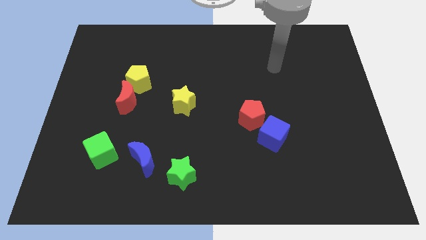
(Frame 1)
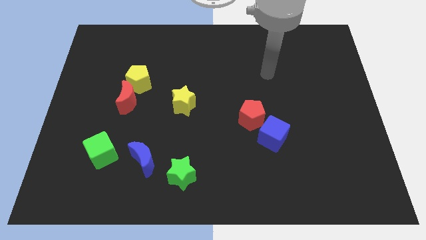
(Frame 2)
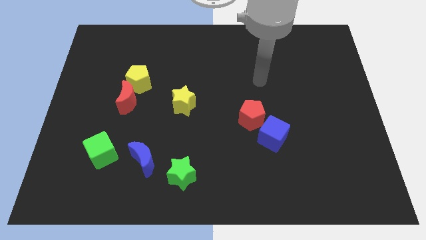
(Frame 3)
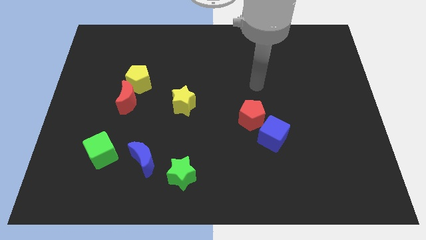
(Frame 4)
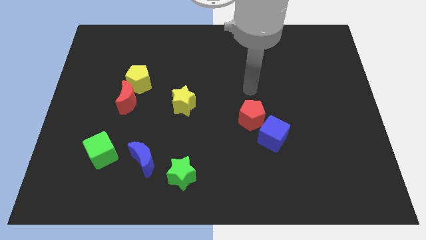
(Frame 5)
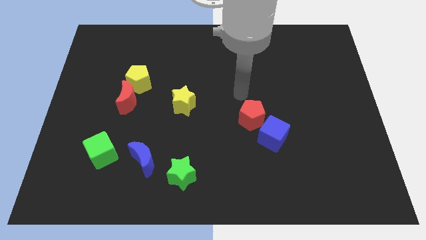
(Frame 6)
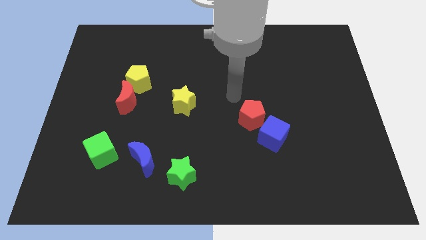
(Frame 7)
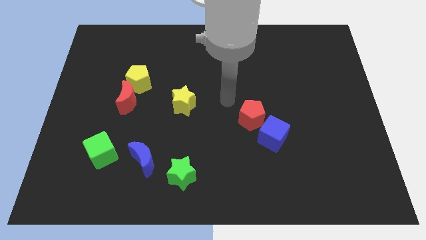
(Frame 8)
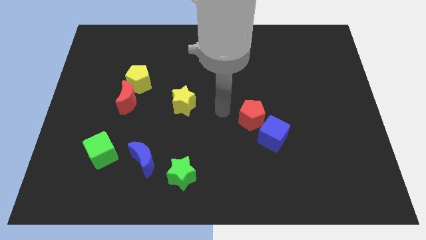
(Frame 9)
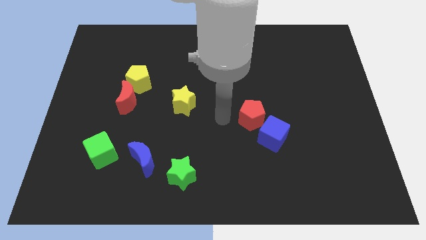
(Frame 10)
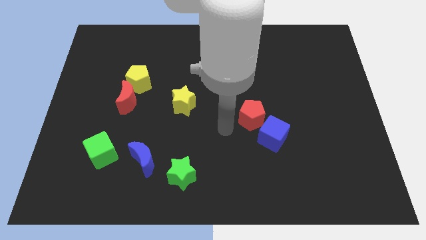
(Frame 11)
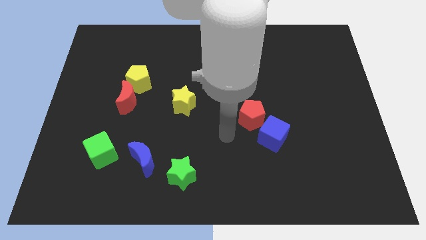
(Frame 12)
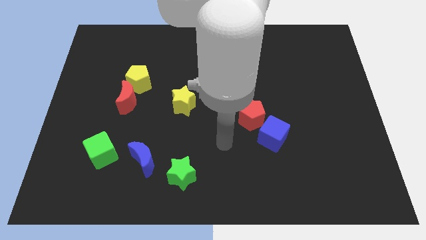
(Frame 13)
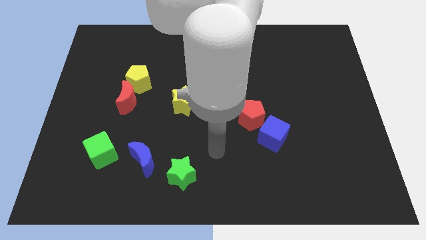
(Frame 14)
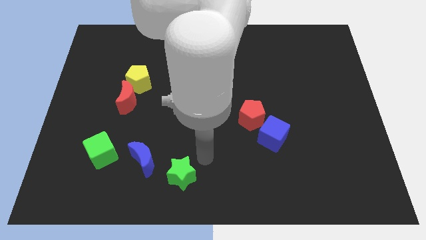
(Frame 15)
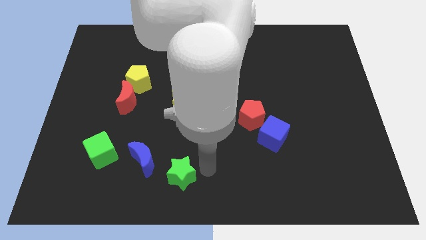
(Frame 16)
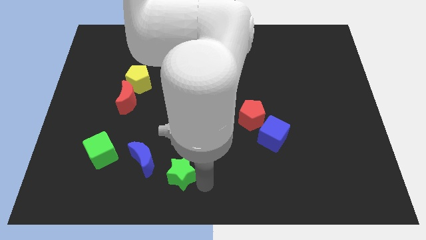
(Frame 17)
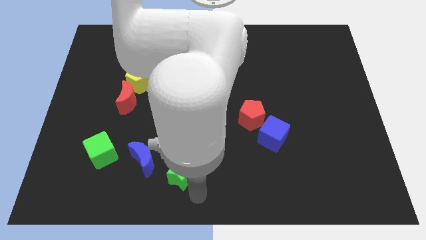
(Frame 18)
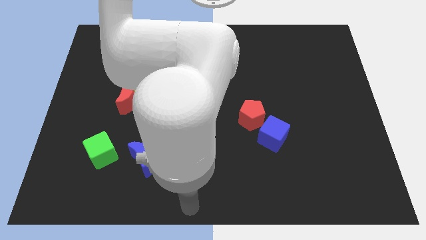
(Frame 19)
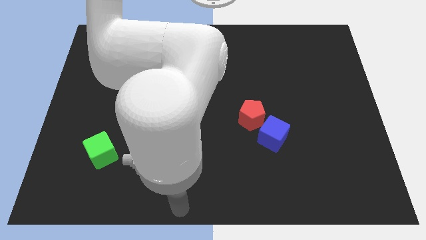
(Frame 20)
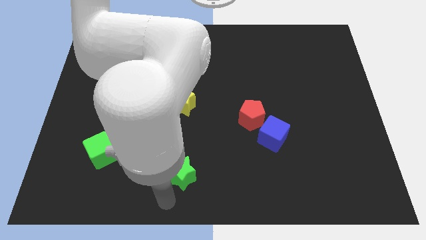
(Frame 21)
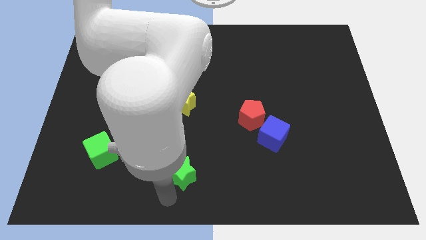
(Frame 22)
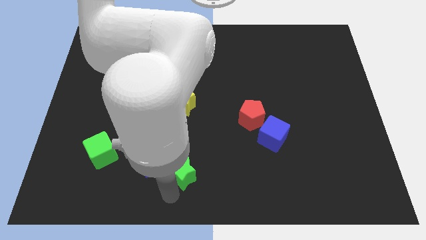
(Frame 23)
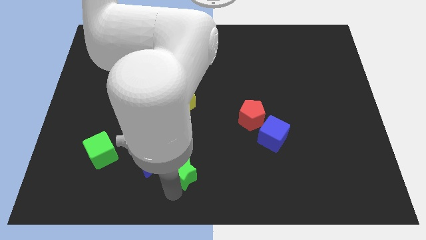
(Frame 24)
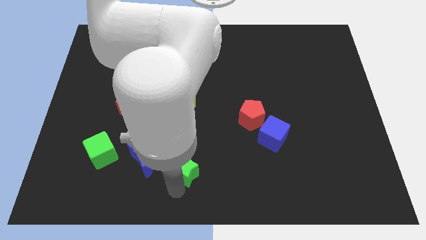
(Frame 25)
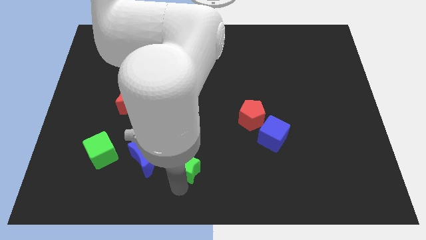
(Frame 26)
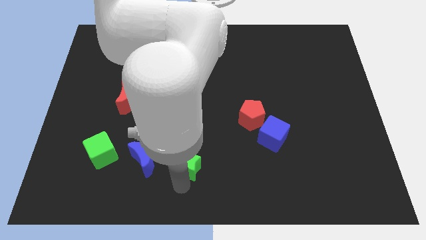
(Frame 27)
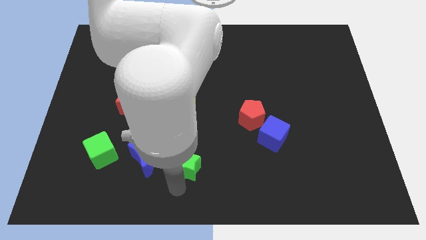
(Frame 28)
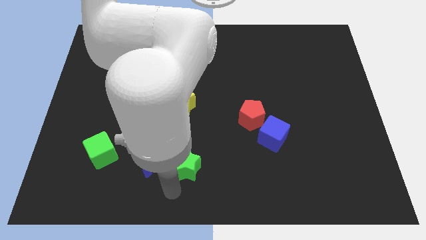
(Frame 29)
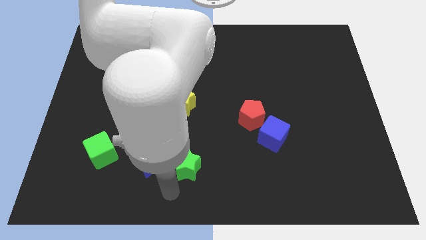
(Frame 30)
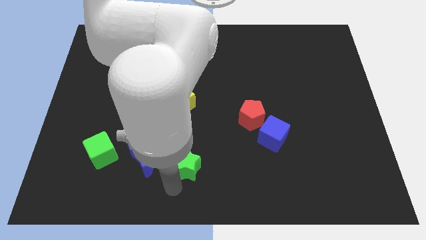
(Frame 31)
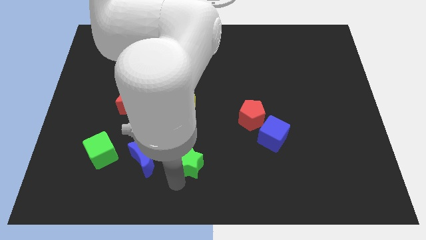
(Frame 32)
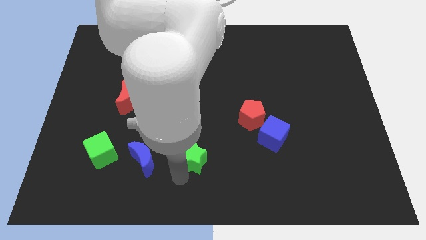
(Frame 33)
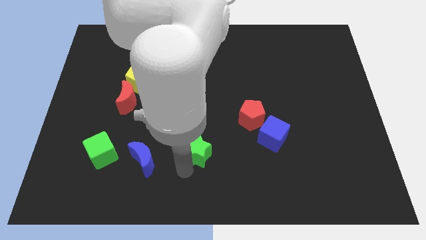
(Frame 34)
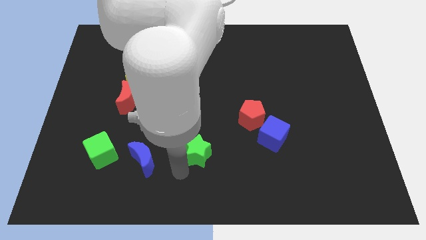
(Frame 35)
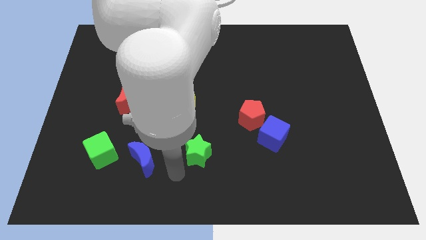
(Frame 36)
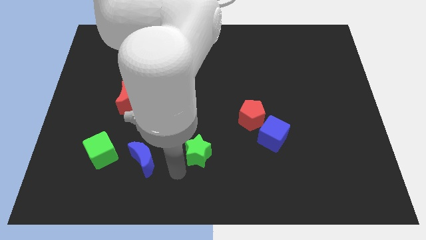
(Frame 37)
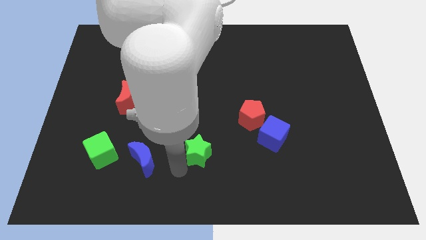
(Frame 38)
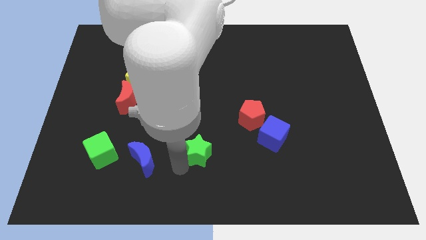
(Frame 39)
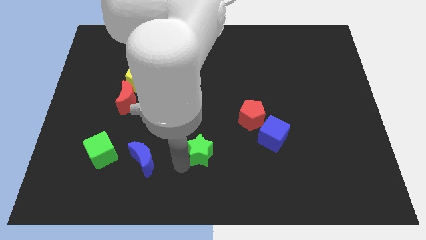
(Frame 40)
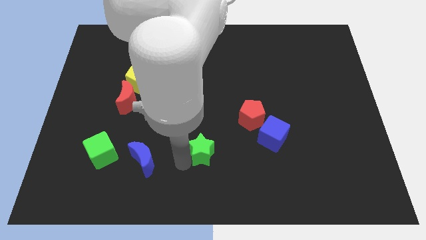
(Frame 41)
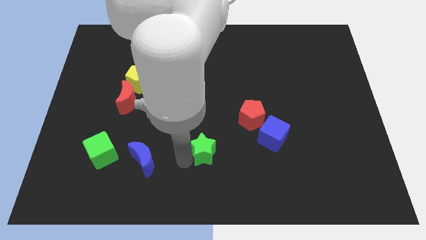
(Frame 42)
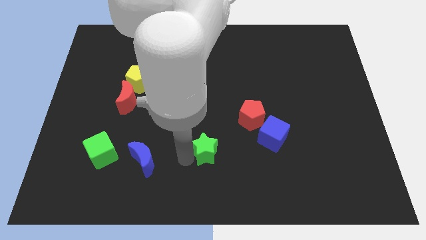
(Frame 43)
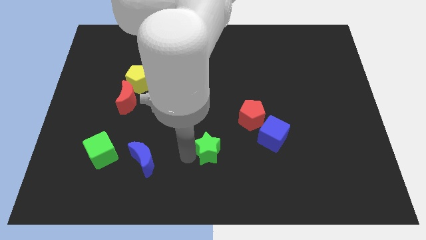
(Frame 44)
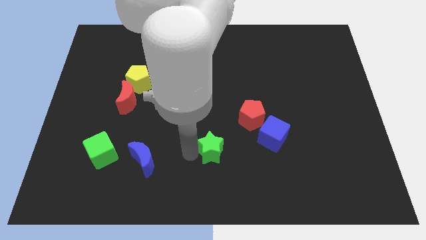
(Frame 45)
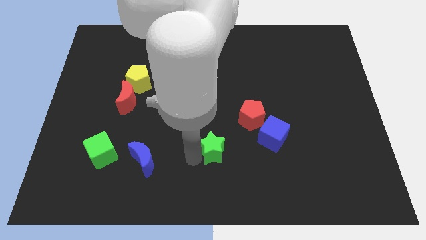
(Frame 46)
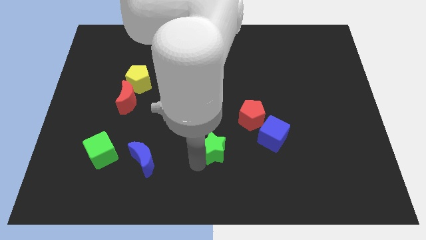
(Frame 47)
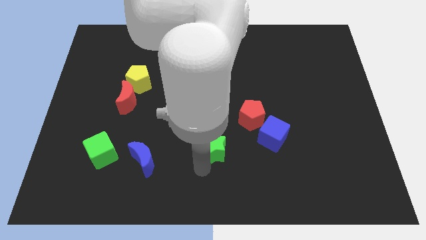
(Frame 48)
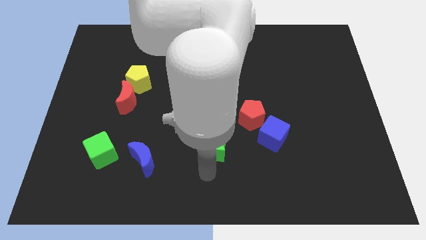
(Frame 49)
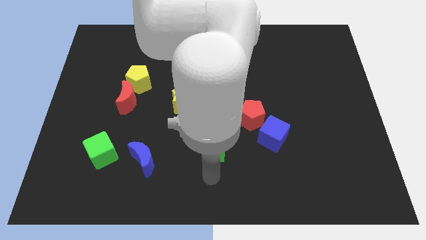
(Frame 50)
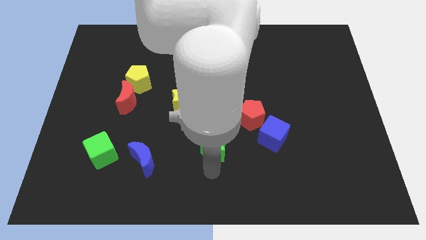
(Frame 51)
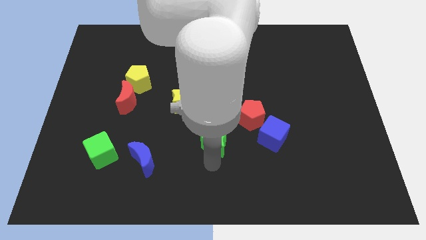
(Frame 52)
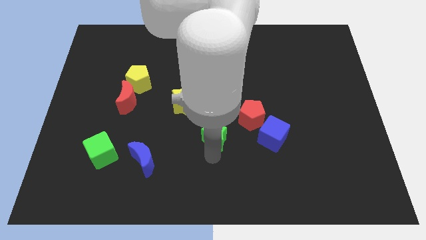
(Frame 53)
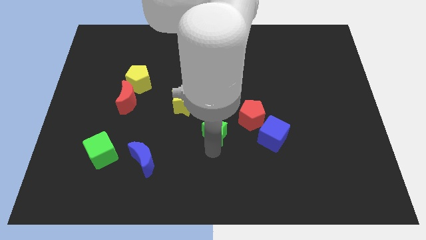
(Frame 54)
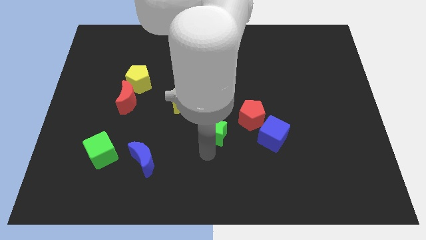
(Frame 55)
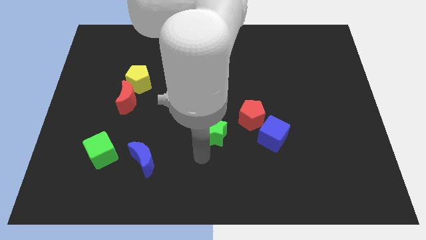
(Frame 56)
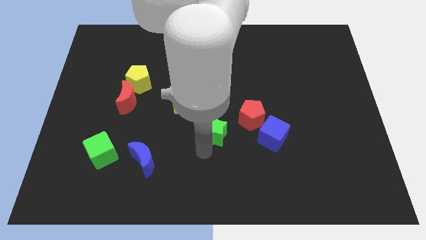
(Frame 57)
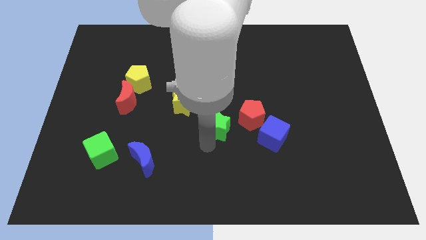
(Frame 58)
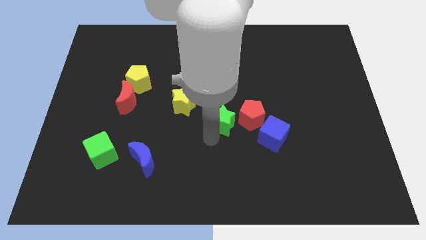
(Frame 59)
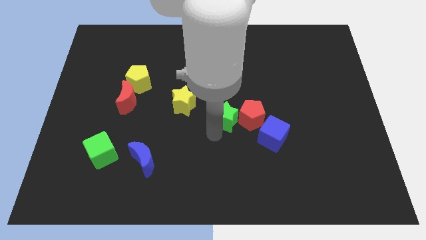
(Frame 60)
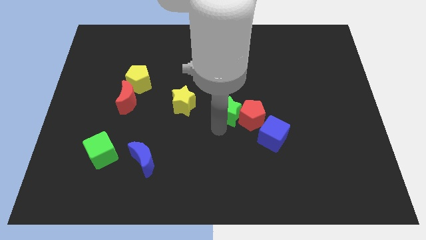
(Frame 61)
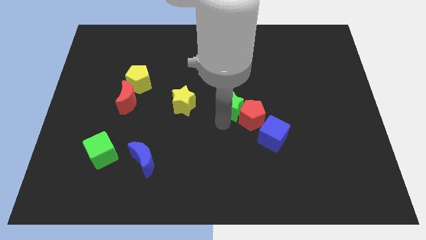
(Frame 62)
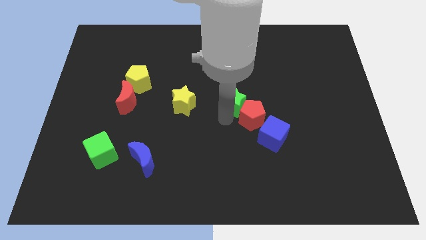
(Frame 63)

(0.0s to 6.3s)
slide the green star diagonally up and right

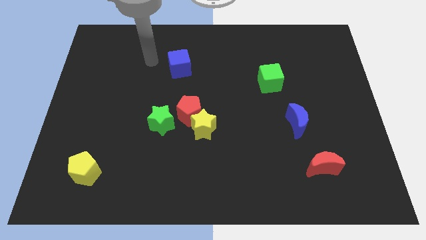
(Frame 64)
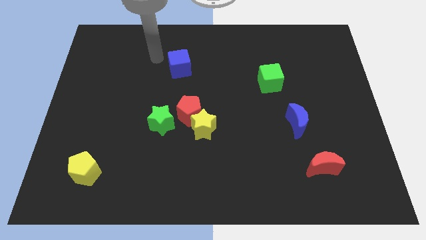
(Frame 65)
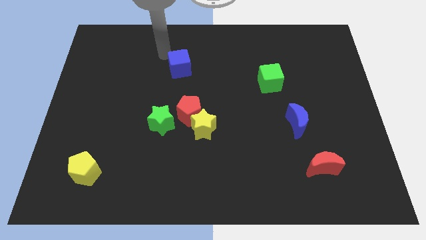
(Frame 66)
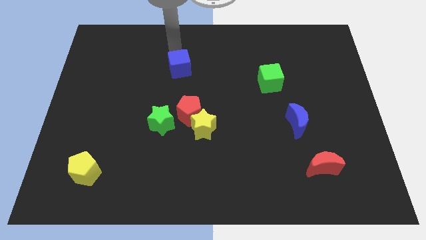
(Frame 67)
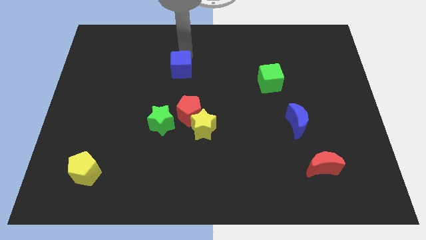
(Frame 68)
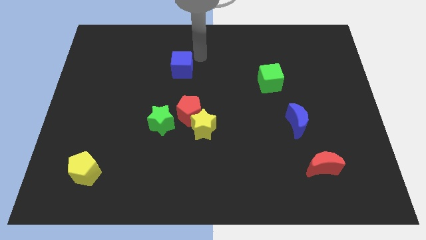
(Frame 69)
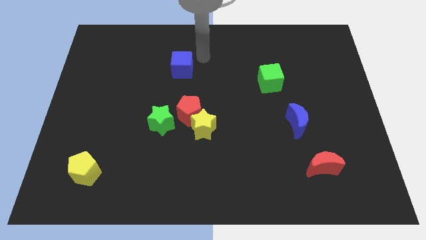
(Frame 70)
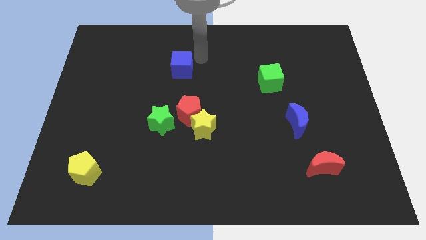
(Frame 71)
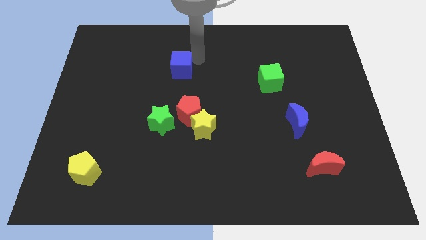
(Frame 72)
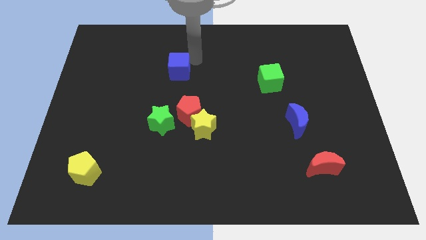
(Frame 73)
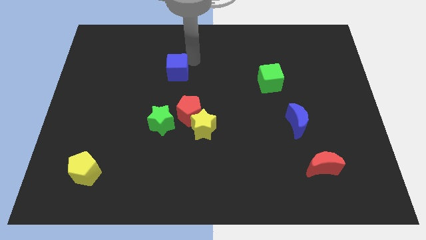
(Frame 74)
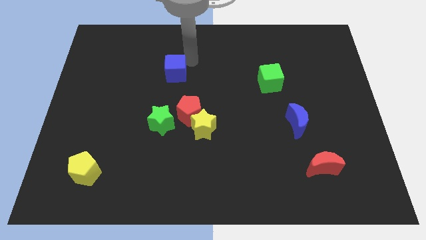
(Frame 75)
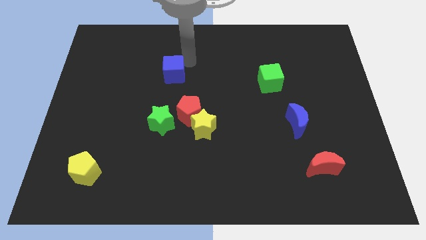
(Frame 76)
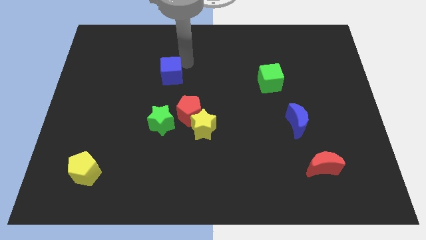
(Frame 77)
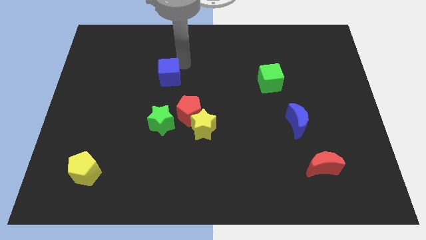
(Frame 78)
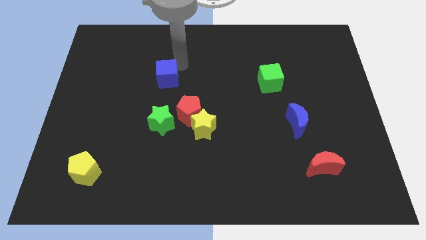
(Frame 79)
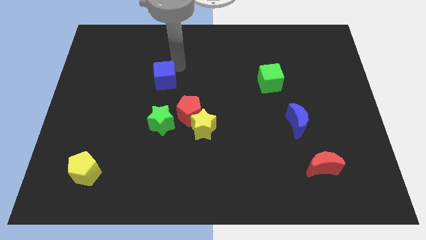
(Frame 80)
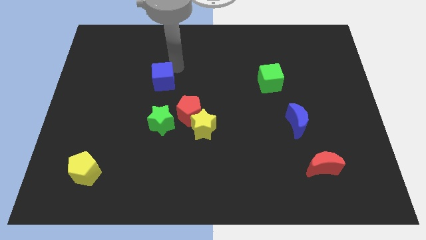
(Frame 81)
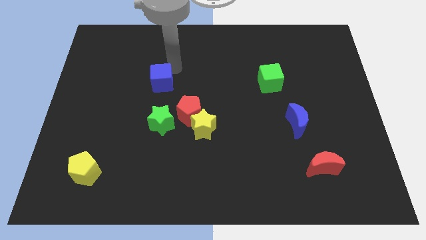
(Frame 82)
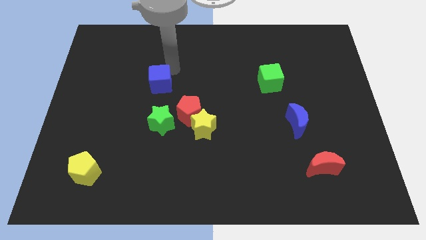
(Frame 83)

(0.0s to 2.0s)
slightly slide the blue cube downwards and to the left diagonally
